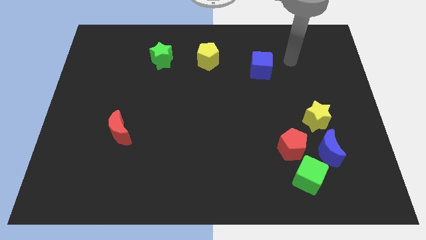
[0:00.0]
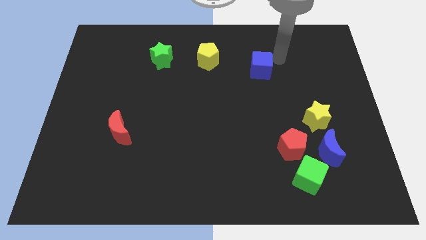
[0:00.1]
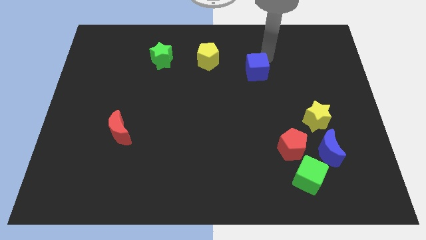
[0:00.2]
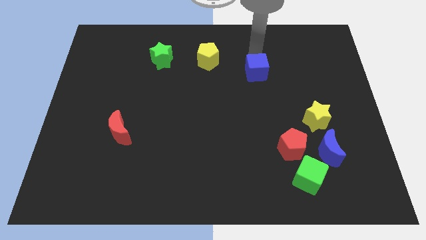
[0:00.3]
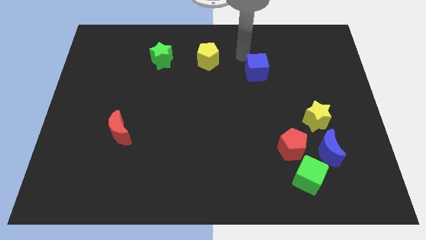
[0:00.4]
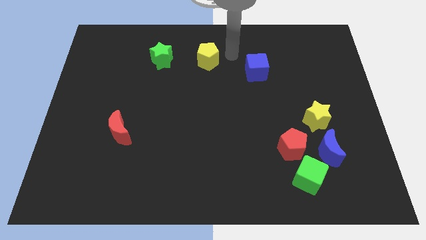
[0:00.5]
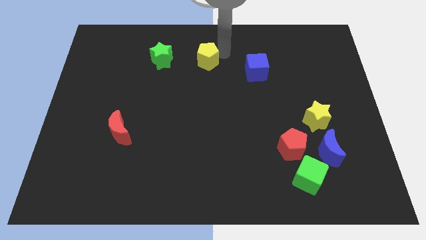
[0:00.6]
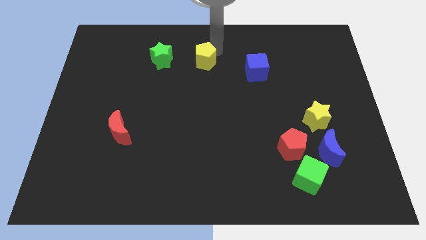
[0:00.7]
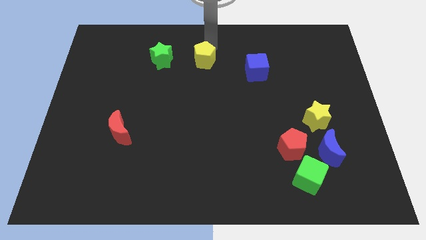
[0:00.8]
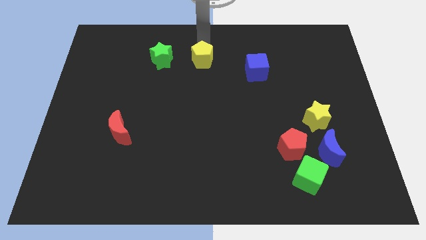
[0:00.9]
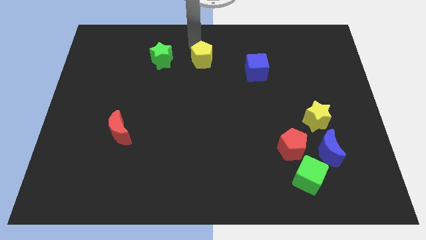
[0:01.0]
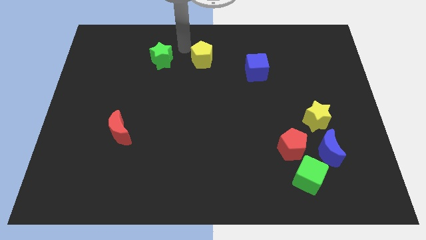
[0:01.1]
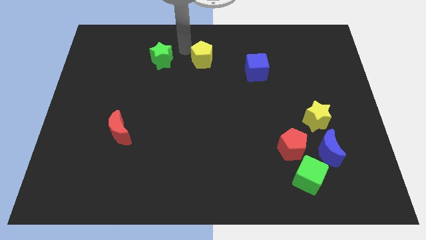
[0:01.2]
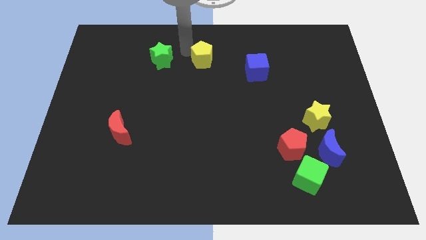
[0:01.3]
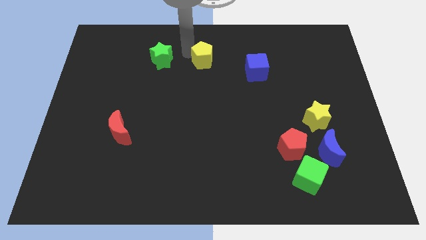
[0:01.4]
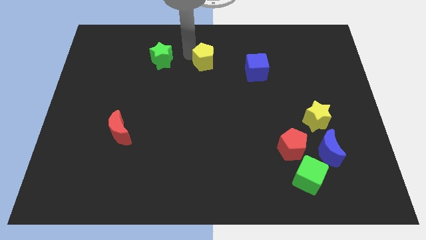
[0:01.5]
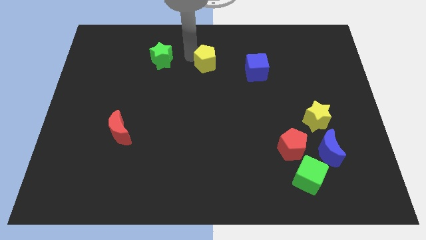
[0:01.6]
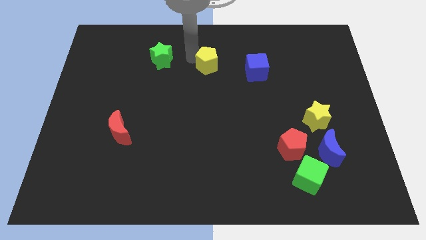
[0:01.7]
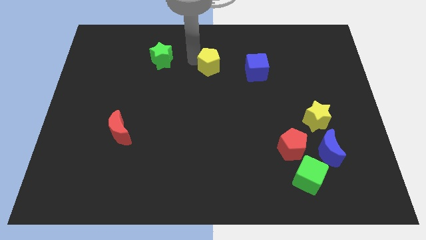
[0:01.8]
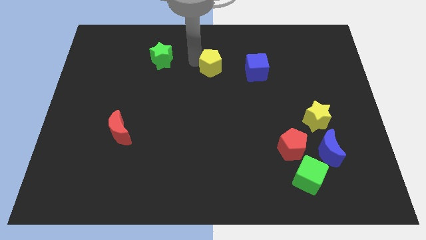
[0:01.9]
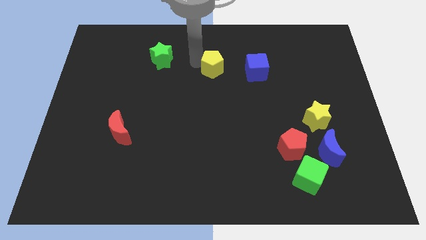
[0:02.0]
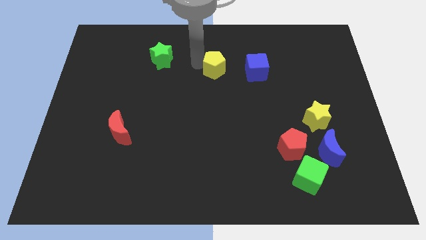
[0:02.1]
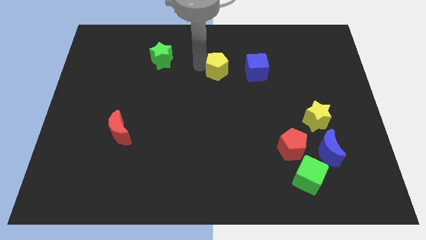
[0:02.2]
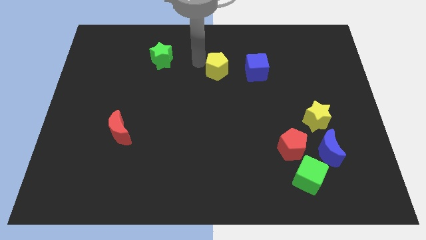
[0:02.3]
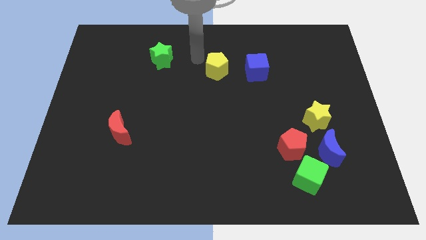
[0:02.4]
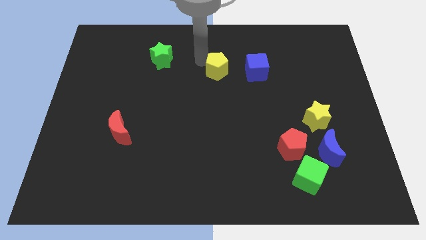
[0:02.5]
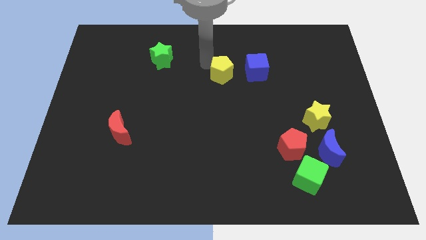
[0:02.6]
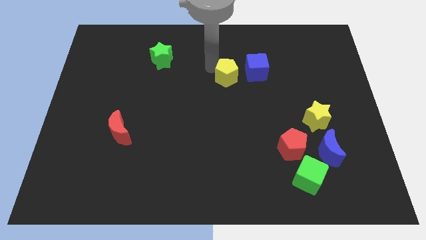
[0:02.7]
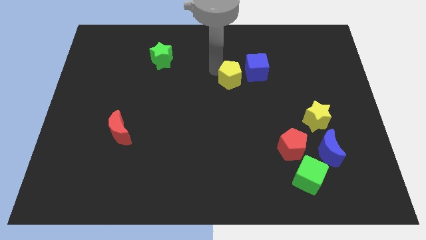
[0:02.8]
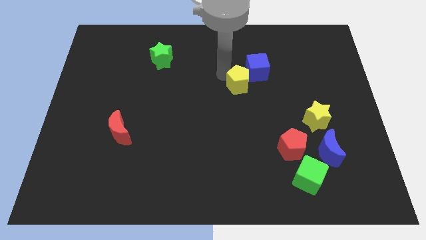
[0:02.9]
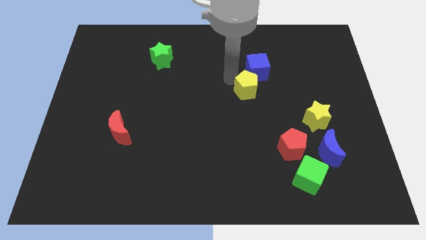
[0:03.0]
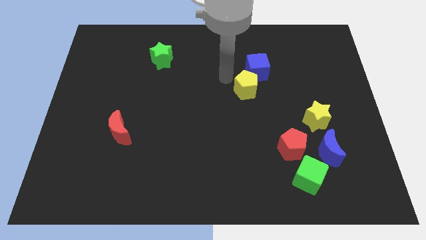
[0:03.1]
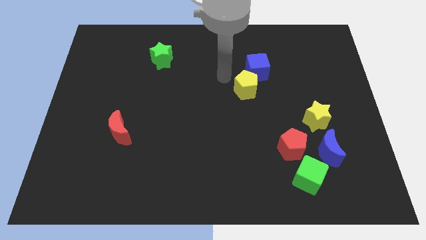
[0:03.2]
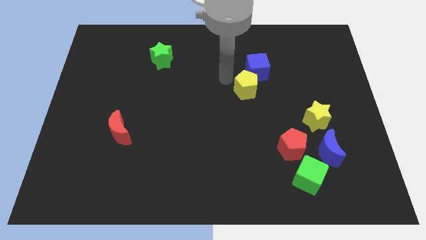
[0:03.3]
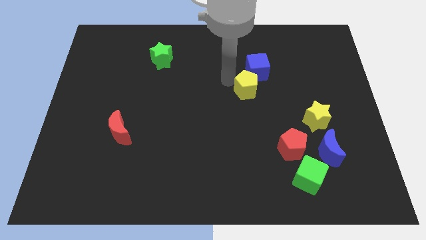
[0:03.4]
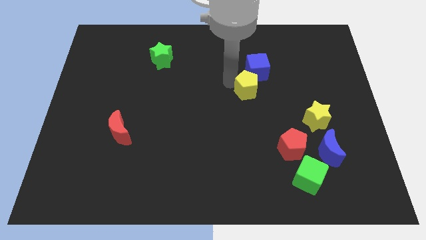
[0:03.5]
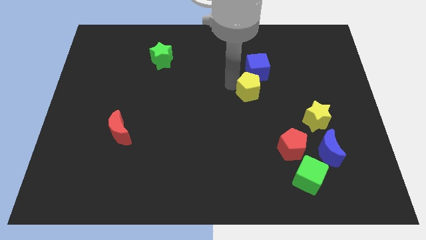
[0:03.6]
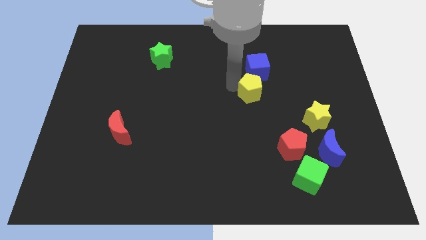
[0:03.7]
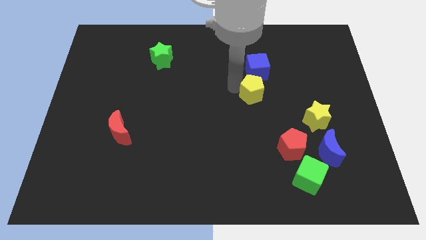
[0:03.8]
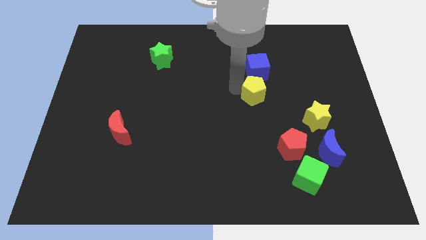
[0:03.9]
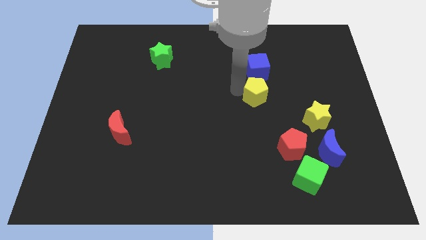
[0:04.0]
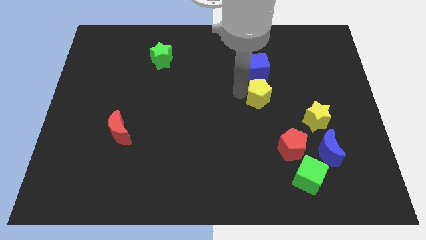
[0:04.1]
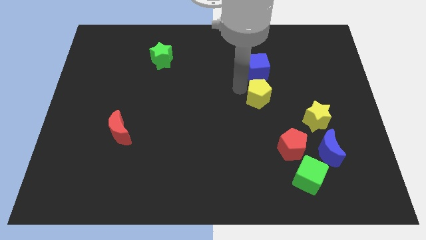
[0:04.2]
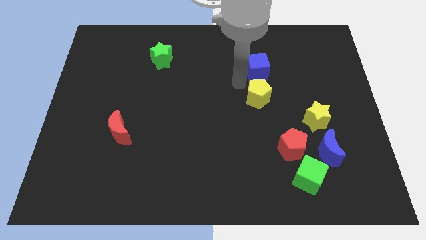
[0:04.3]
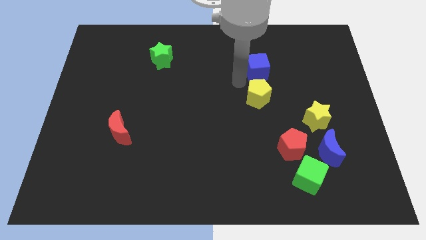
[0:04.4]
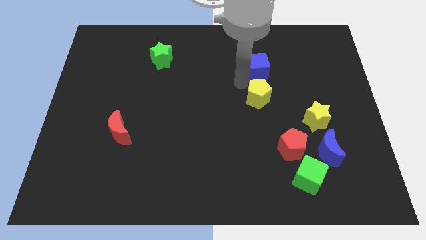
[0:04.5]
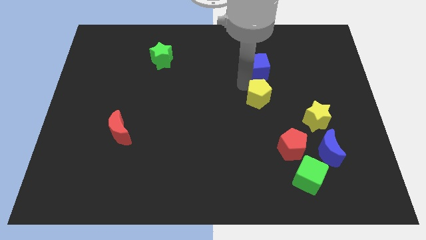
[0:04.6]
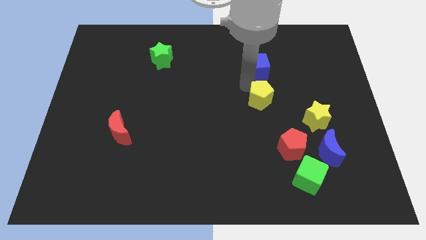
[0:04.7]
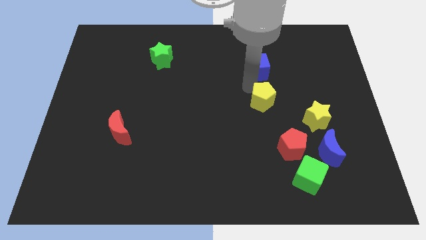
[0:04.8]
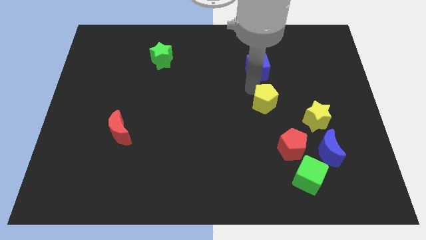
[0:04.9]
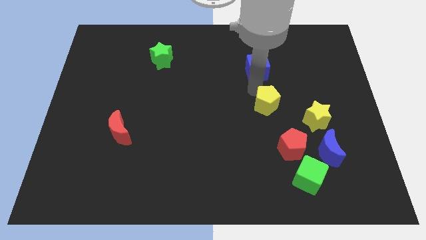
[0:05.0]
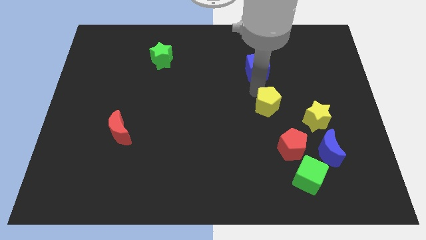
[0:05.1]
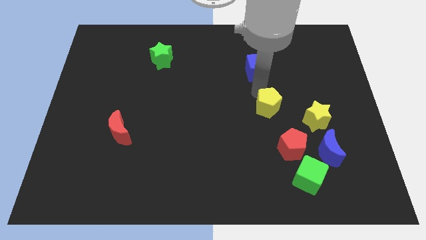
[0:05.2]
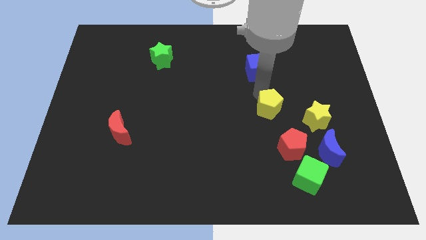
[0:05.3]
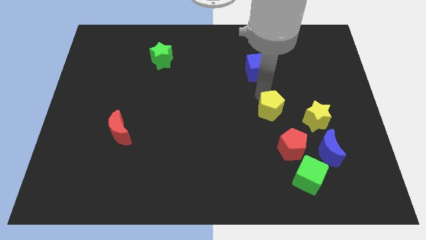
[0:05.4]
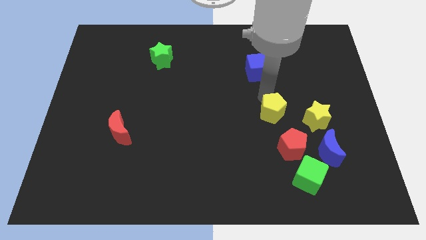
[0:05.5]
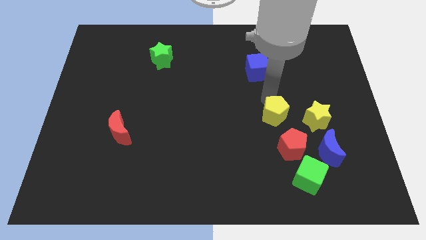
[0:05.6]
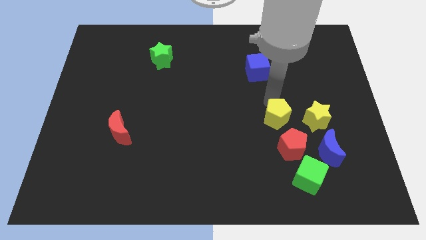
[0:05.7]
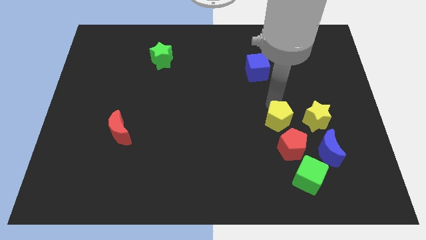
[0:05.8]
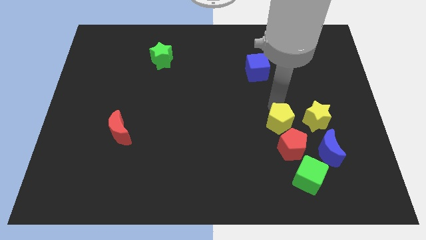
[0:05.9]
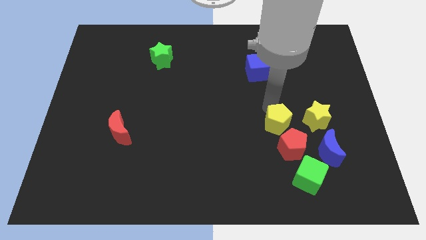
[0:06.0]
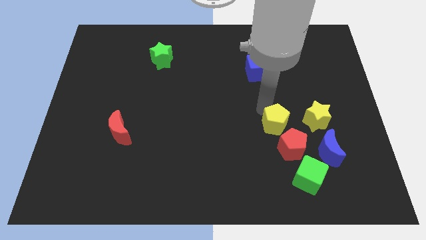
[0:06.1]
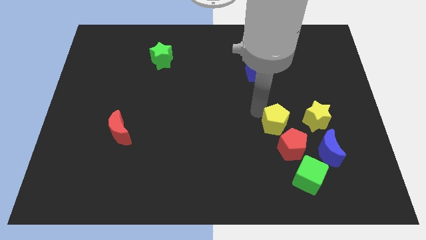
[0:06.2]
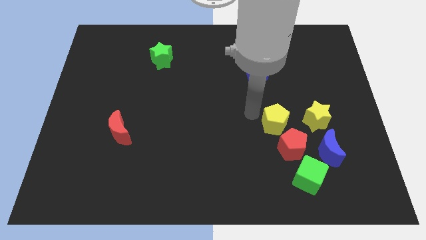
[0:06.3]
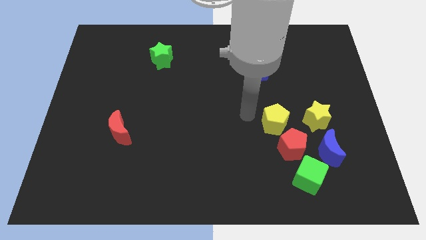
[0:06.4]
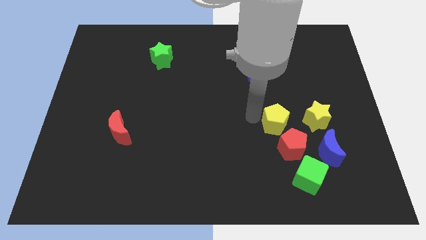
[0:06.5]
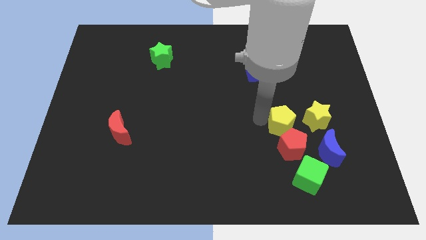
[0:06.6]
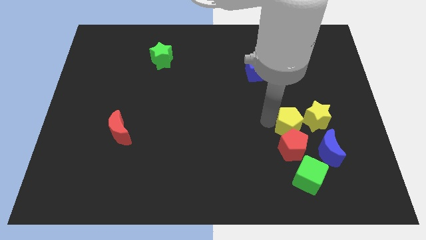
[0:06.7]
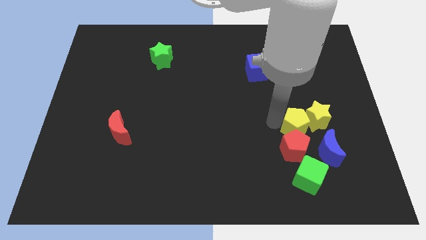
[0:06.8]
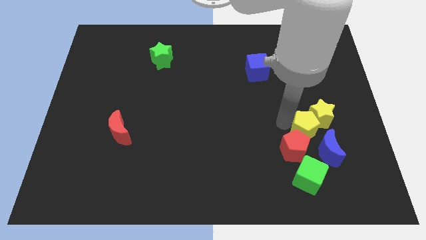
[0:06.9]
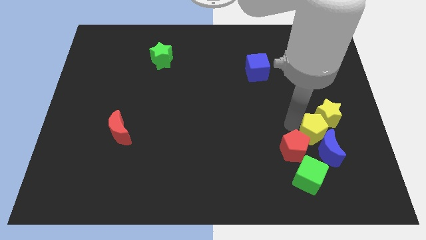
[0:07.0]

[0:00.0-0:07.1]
move the yellow pentagon next to the blue moon

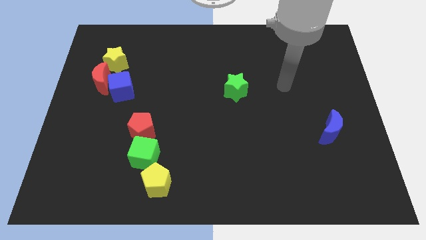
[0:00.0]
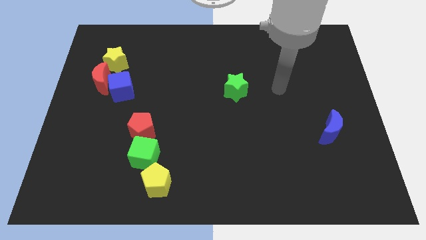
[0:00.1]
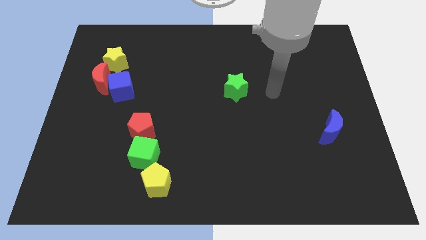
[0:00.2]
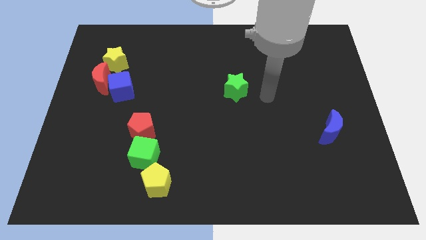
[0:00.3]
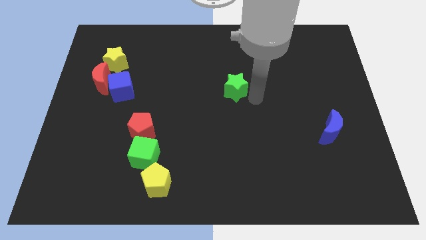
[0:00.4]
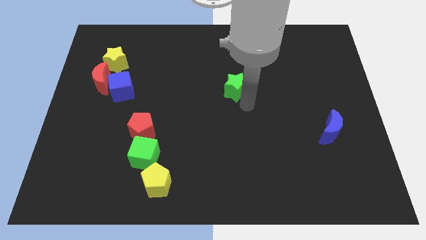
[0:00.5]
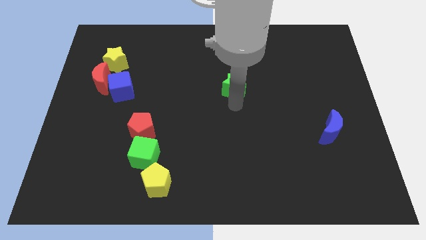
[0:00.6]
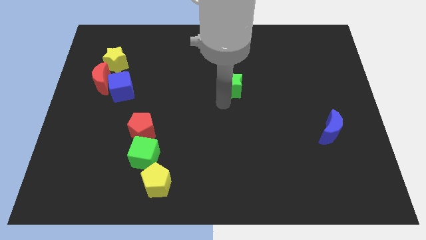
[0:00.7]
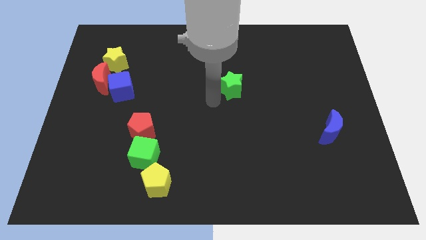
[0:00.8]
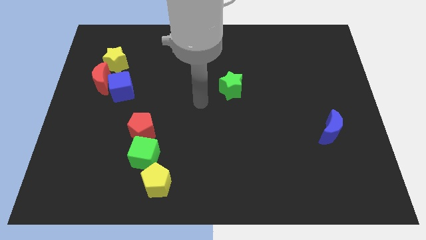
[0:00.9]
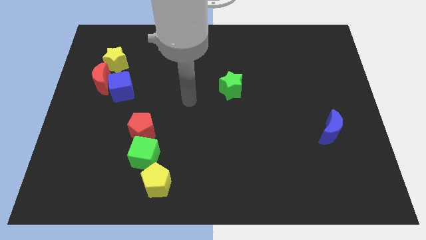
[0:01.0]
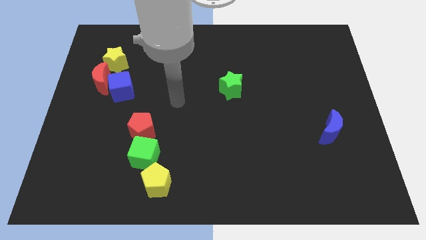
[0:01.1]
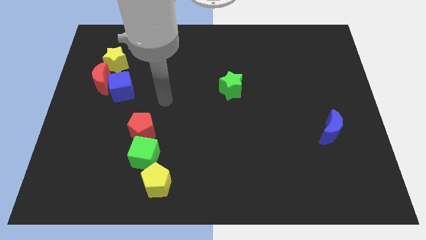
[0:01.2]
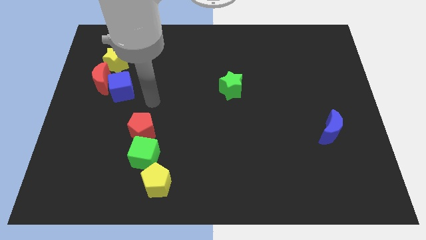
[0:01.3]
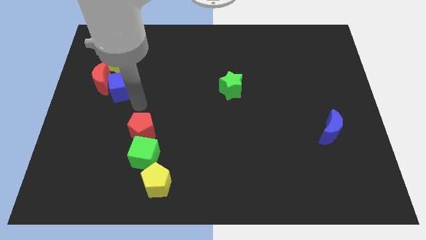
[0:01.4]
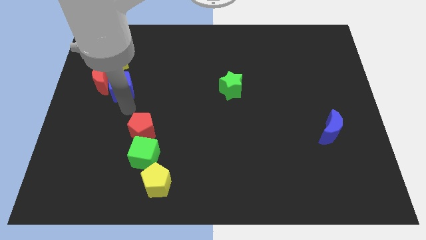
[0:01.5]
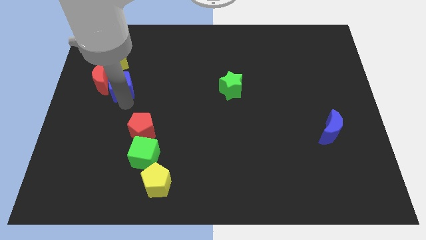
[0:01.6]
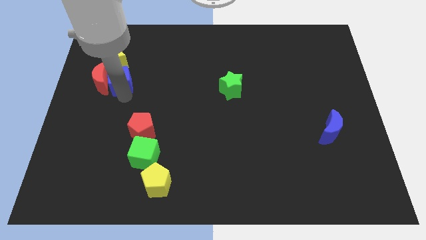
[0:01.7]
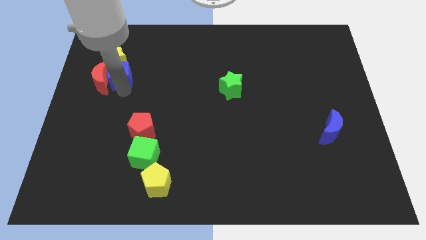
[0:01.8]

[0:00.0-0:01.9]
push the blue cube next to the yellow star

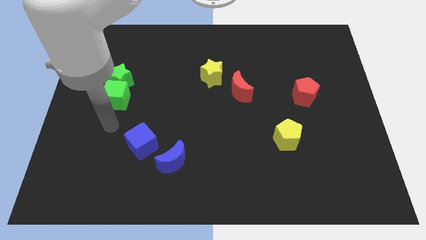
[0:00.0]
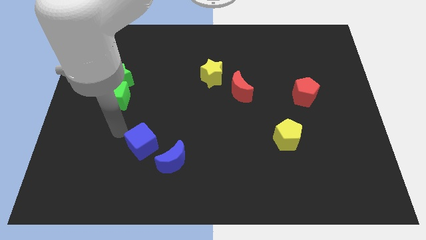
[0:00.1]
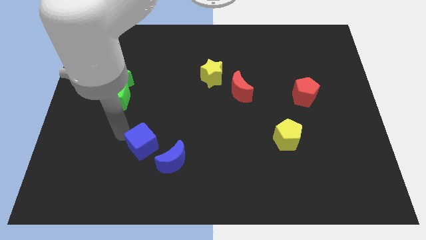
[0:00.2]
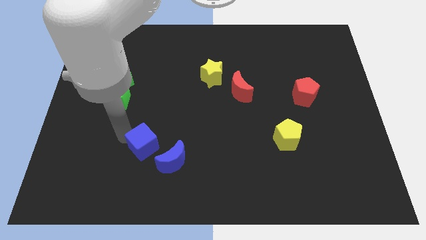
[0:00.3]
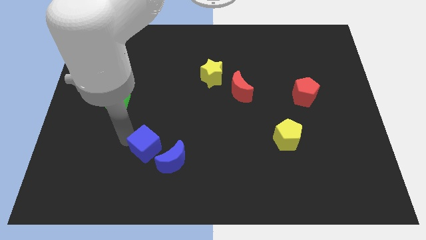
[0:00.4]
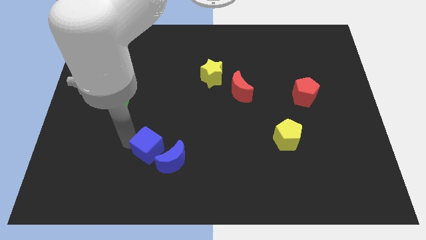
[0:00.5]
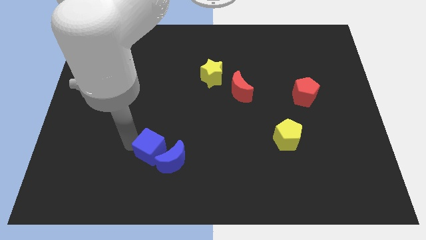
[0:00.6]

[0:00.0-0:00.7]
put the blue cube close to the blue moon
